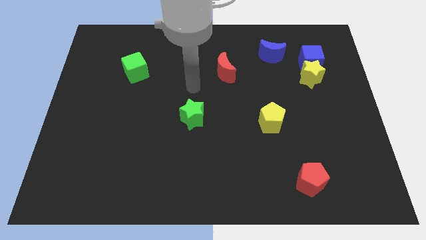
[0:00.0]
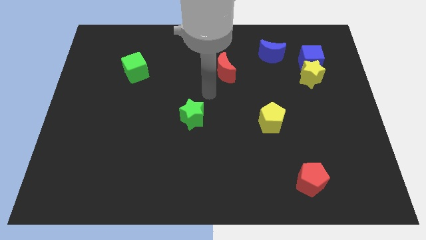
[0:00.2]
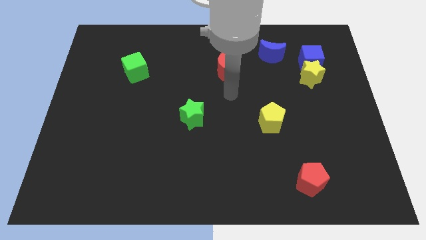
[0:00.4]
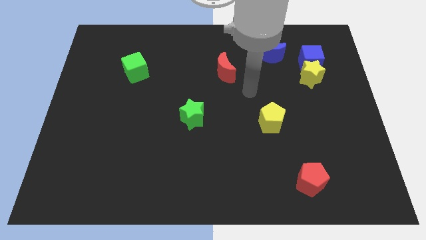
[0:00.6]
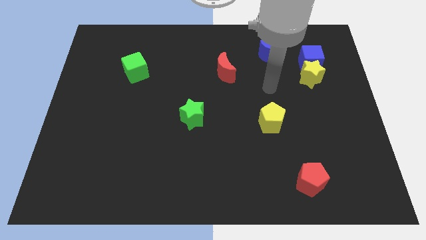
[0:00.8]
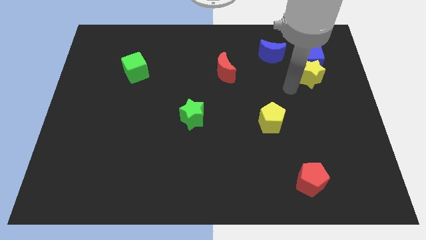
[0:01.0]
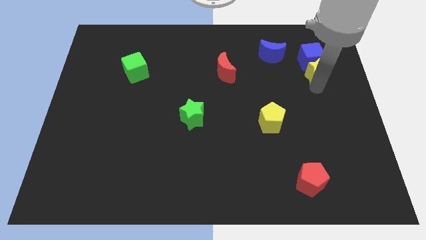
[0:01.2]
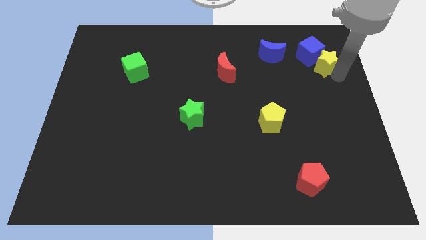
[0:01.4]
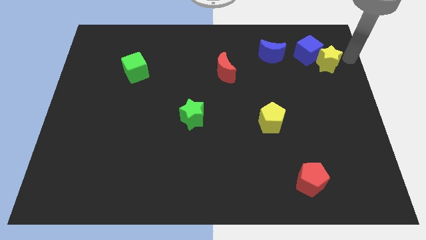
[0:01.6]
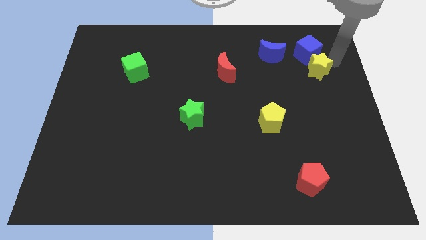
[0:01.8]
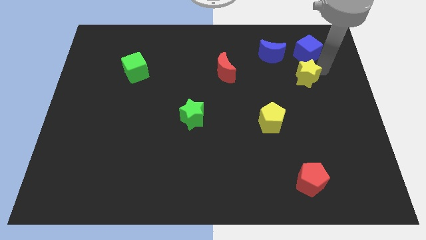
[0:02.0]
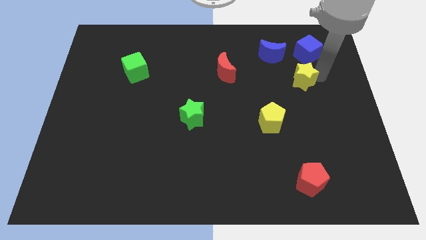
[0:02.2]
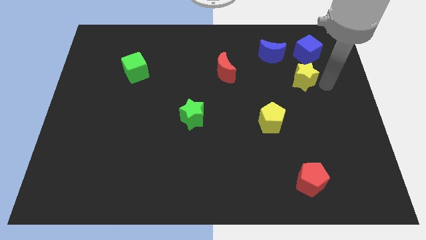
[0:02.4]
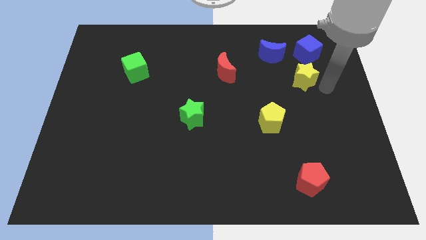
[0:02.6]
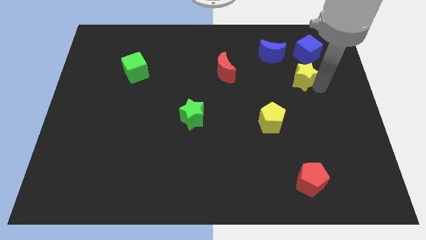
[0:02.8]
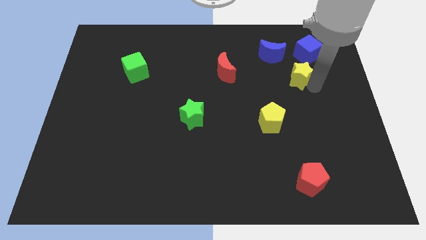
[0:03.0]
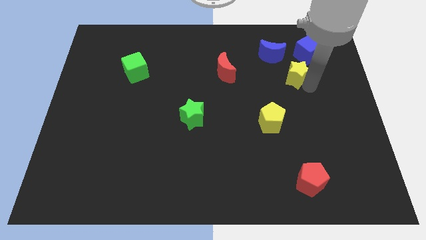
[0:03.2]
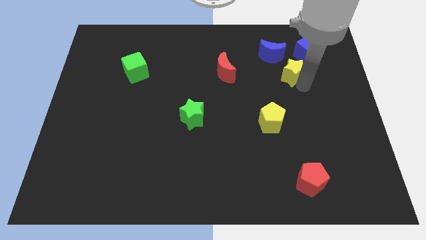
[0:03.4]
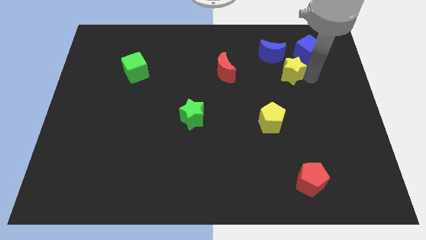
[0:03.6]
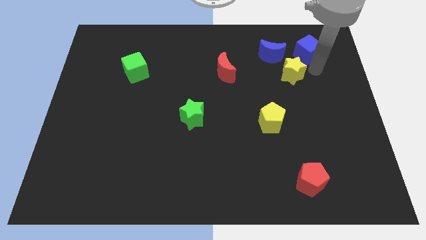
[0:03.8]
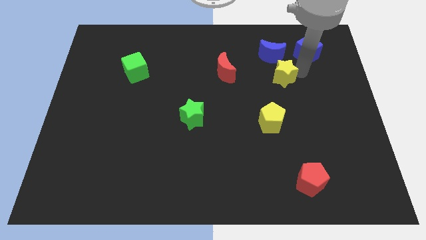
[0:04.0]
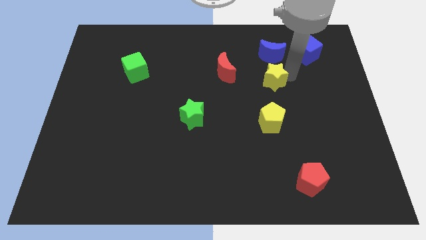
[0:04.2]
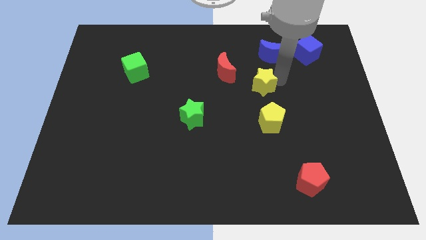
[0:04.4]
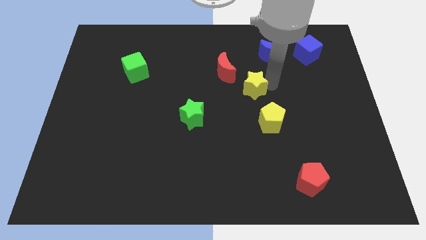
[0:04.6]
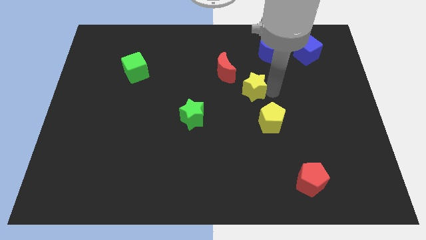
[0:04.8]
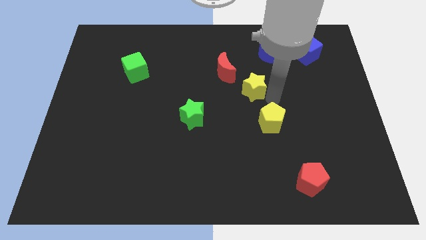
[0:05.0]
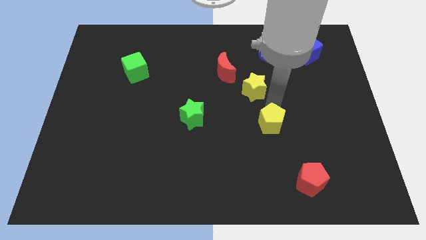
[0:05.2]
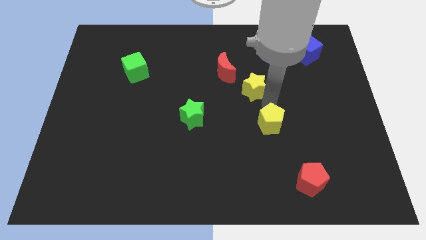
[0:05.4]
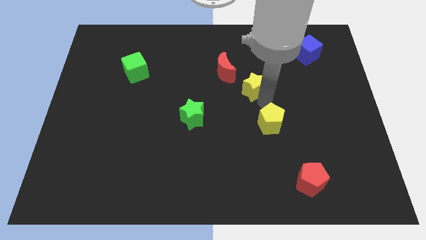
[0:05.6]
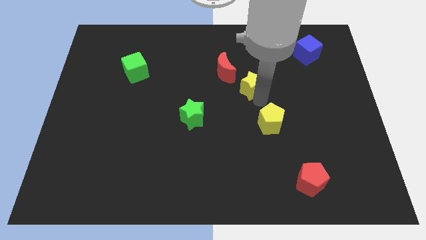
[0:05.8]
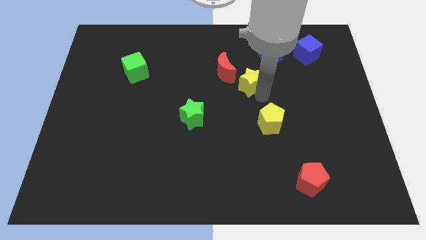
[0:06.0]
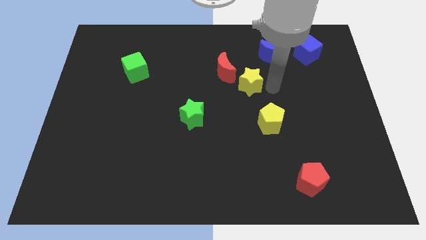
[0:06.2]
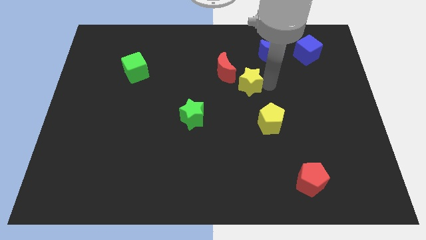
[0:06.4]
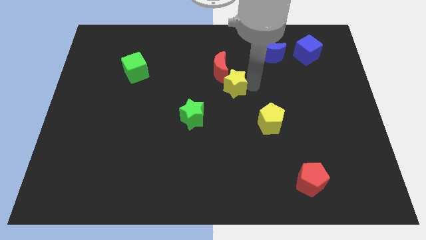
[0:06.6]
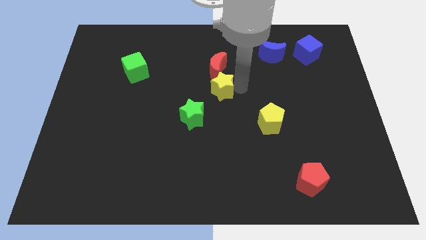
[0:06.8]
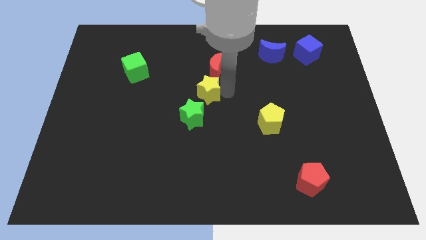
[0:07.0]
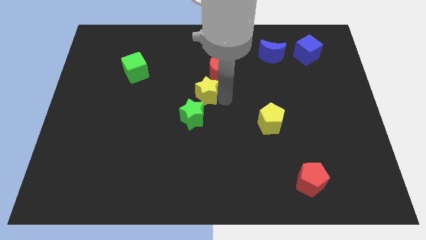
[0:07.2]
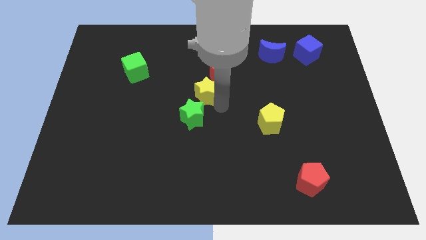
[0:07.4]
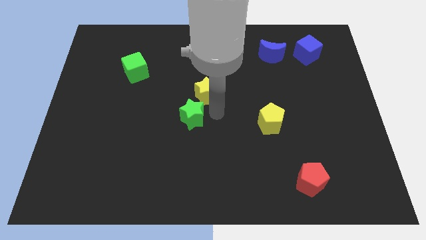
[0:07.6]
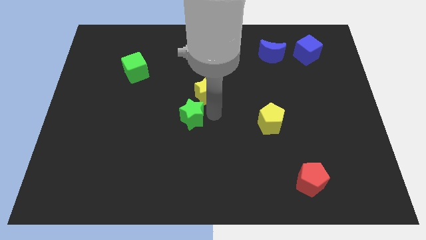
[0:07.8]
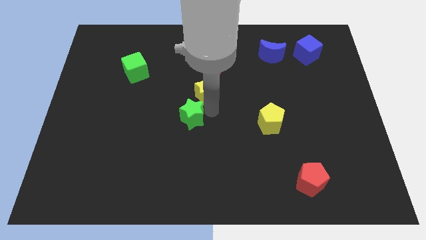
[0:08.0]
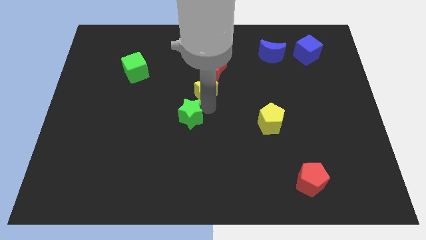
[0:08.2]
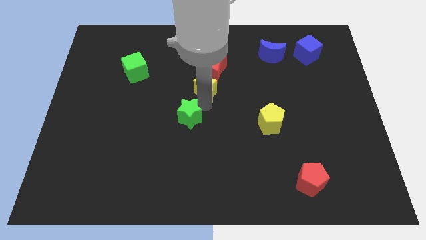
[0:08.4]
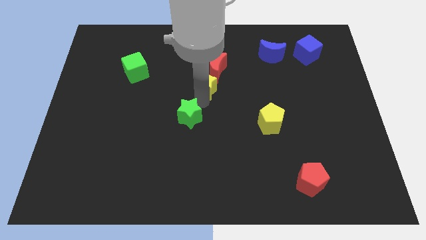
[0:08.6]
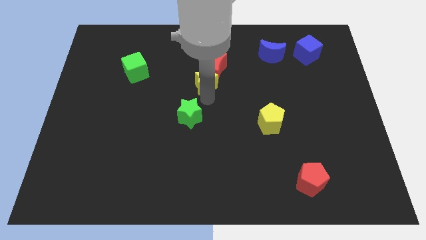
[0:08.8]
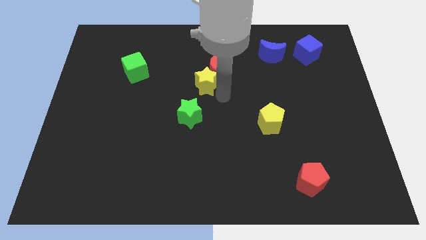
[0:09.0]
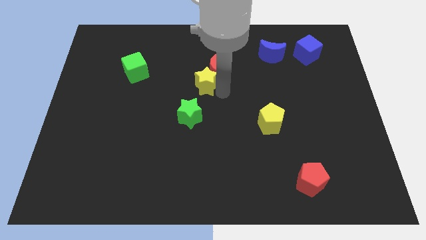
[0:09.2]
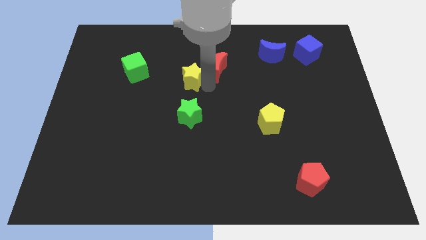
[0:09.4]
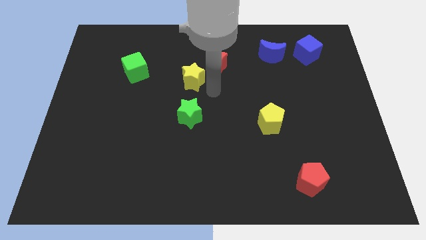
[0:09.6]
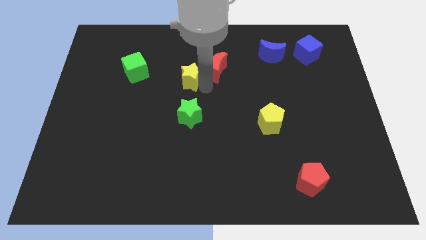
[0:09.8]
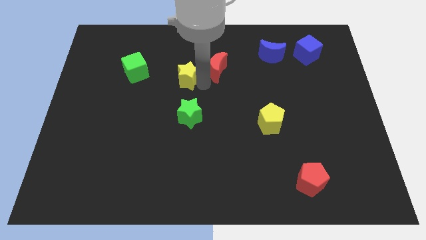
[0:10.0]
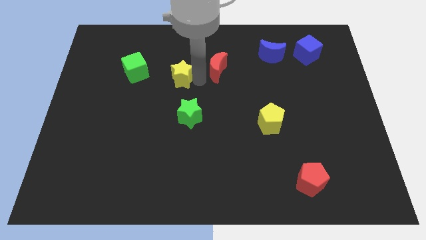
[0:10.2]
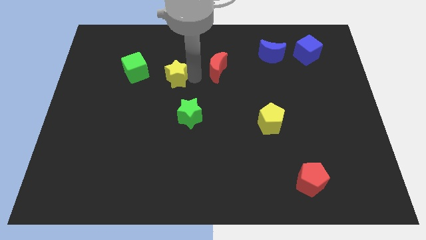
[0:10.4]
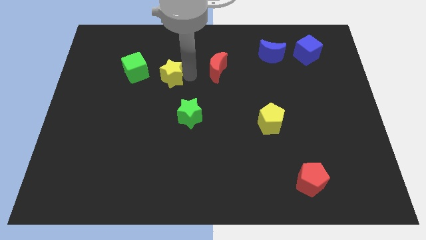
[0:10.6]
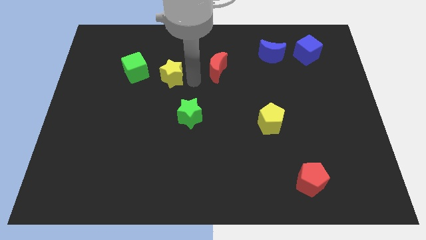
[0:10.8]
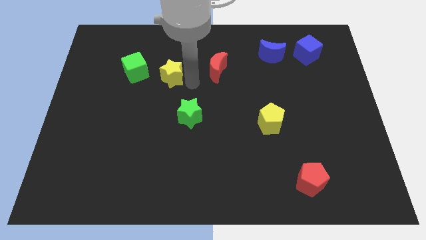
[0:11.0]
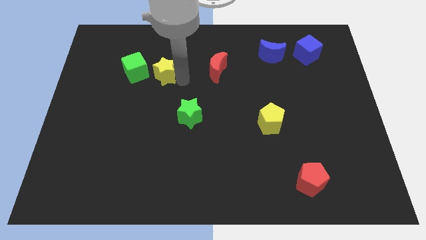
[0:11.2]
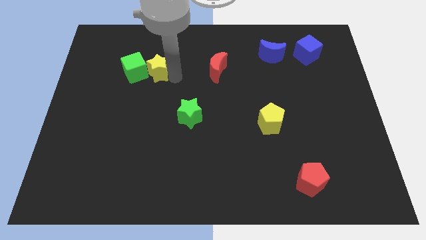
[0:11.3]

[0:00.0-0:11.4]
put the yellow star towards the green cube

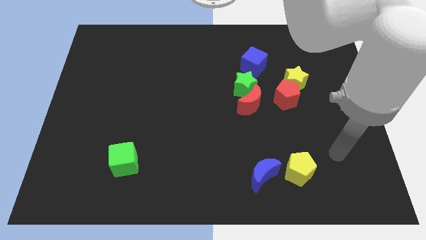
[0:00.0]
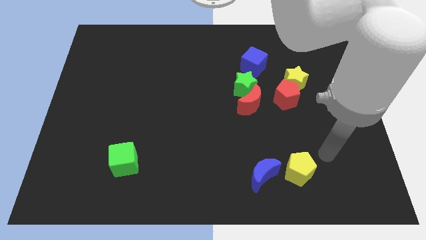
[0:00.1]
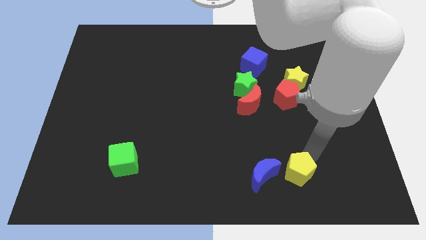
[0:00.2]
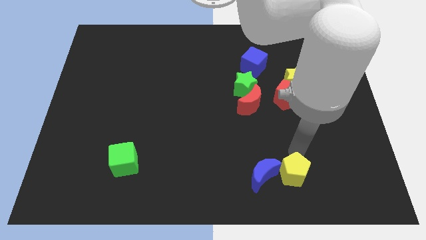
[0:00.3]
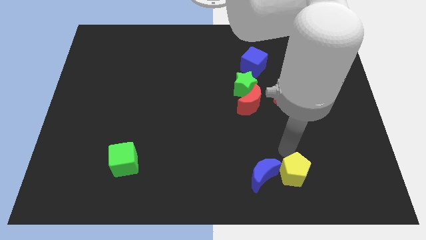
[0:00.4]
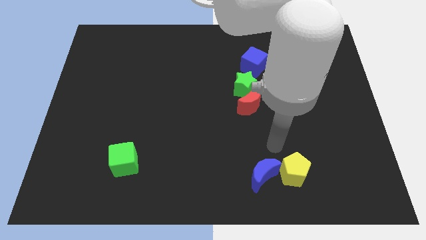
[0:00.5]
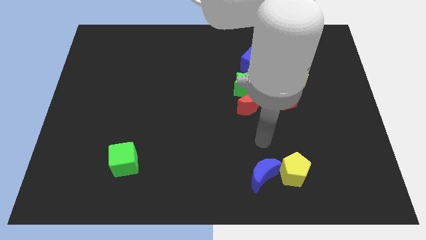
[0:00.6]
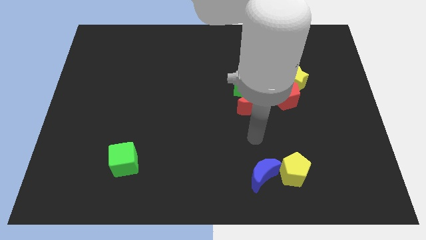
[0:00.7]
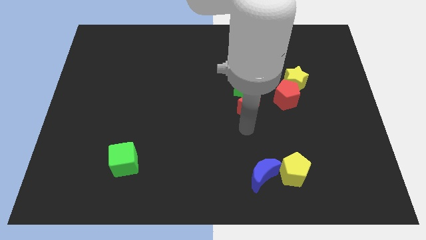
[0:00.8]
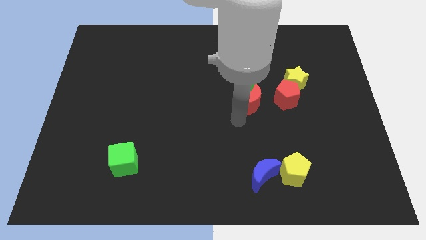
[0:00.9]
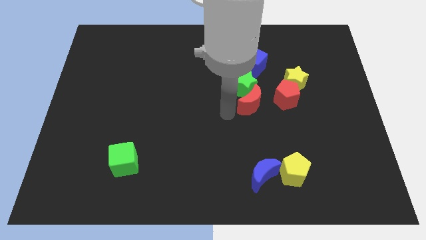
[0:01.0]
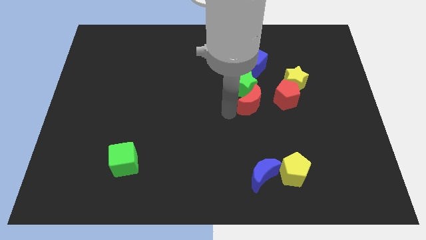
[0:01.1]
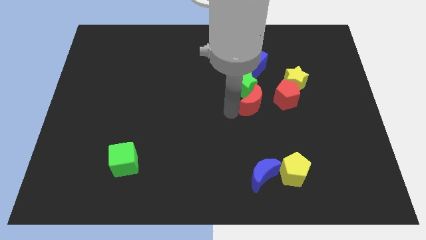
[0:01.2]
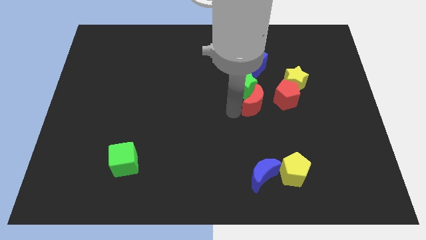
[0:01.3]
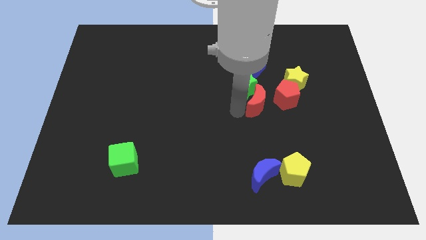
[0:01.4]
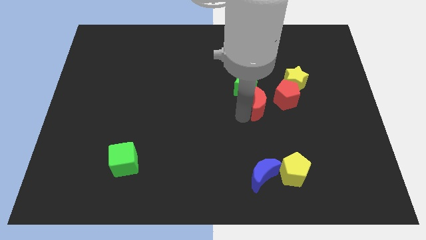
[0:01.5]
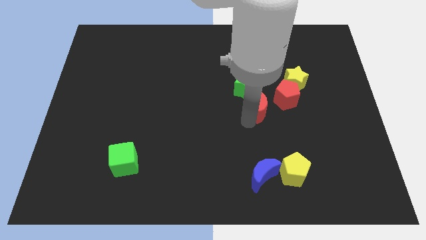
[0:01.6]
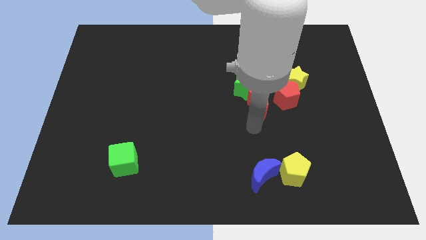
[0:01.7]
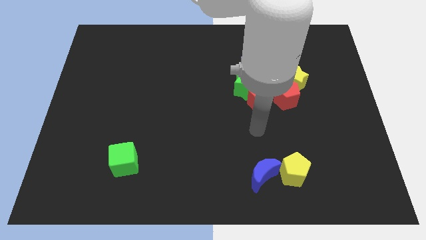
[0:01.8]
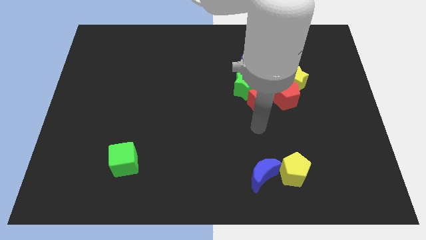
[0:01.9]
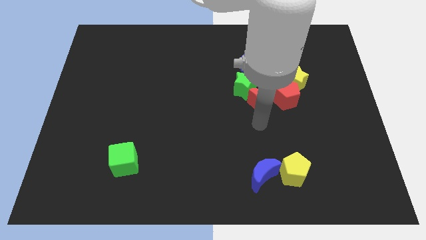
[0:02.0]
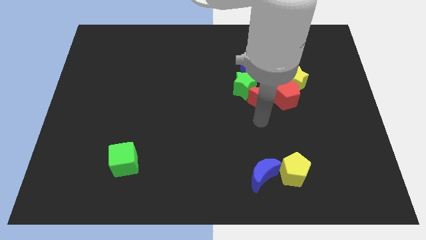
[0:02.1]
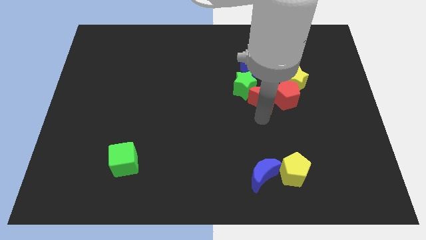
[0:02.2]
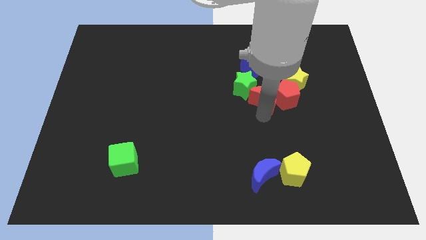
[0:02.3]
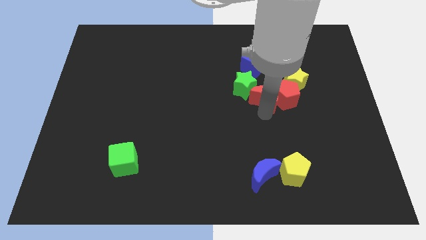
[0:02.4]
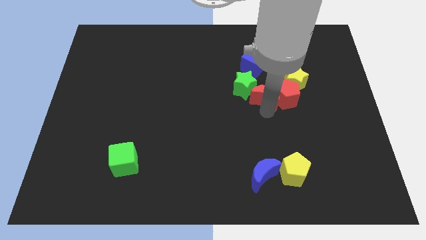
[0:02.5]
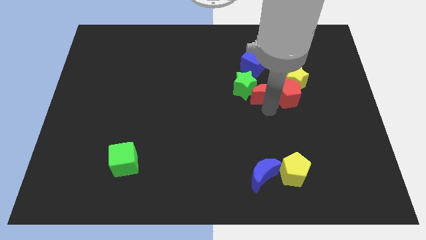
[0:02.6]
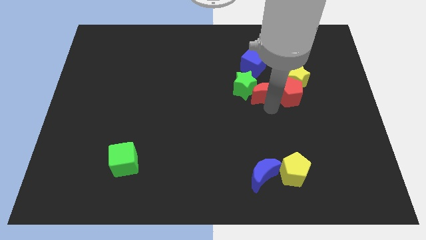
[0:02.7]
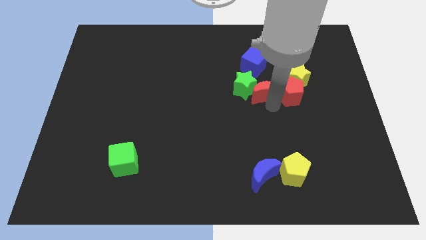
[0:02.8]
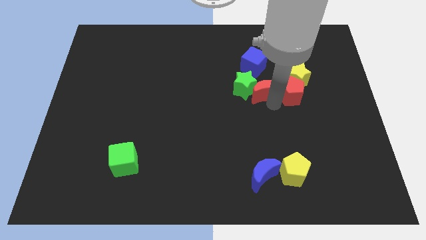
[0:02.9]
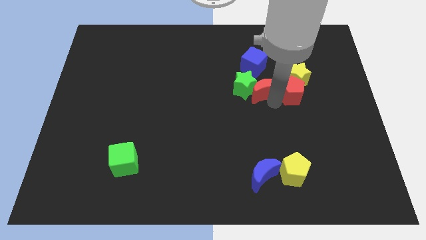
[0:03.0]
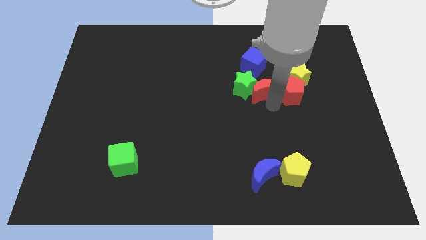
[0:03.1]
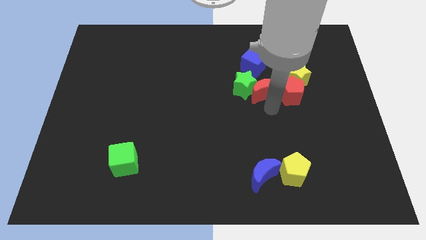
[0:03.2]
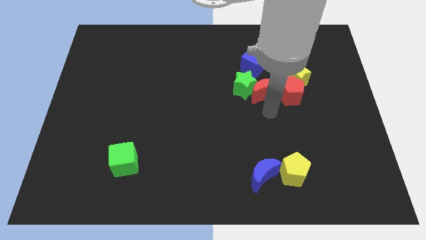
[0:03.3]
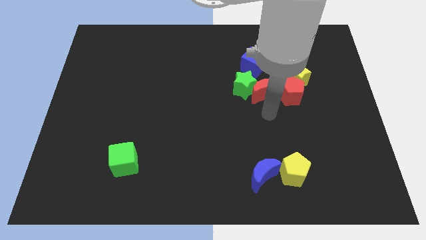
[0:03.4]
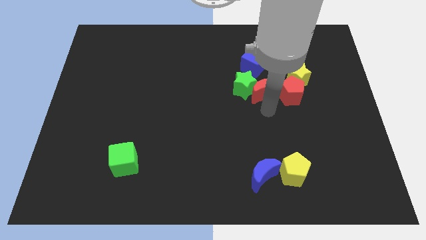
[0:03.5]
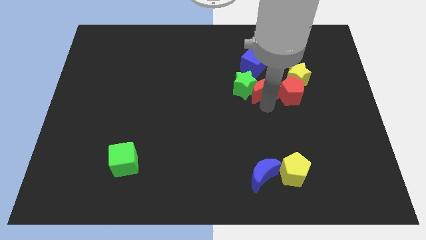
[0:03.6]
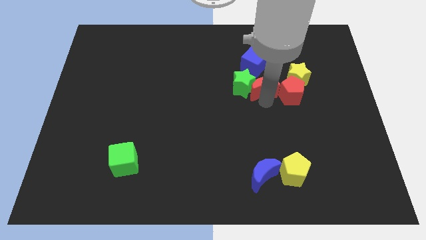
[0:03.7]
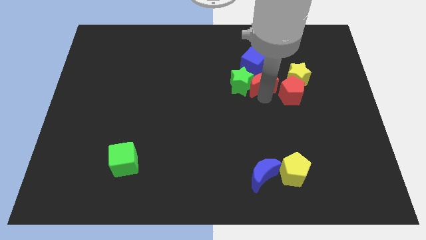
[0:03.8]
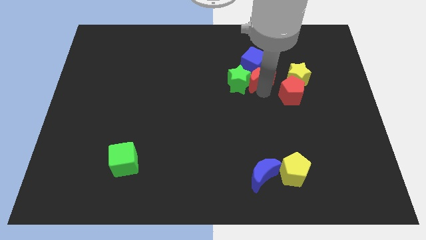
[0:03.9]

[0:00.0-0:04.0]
slide the red moon to the blue cube
